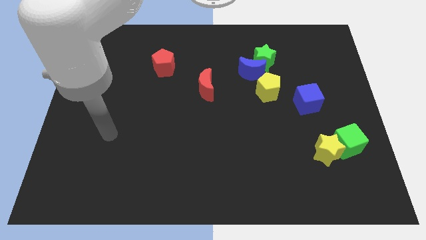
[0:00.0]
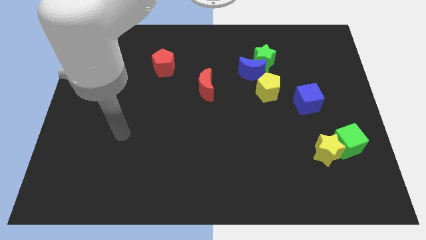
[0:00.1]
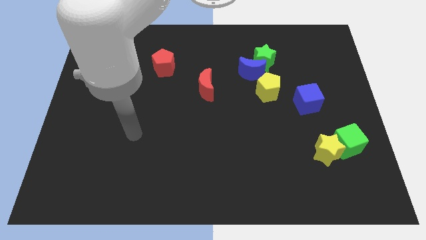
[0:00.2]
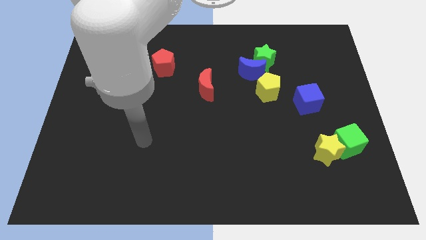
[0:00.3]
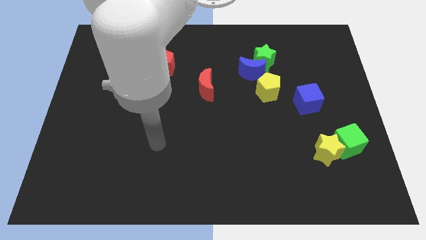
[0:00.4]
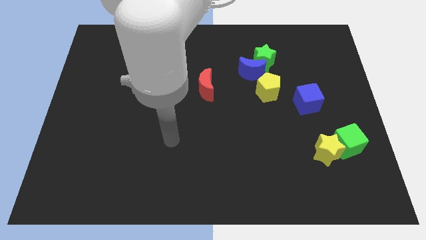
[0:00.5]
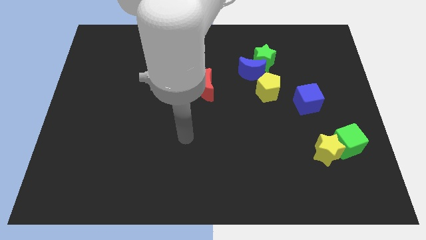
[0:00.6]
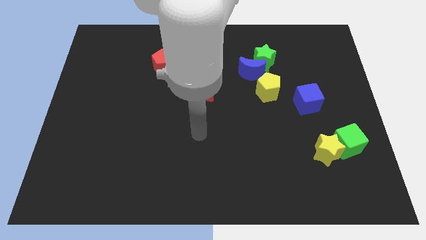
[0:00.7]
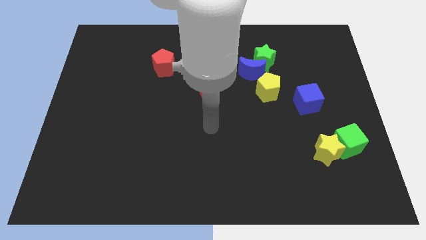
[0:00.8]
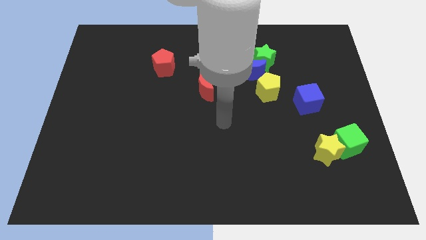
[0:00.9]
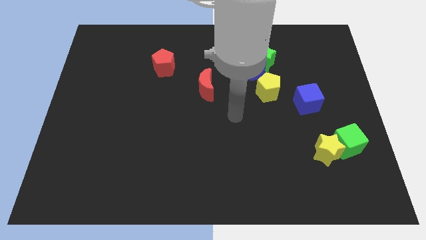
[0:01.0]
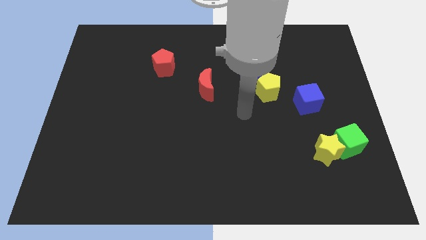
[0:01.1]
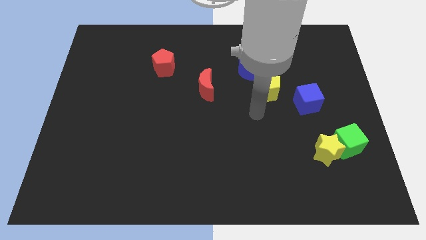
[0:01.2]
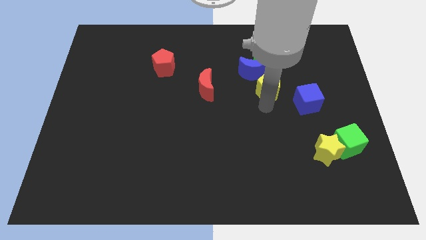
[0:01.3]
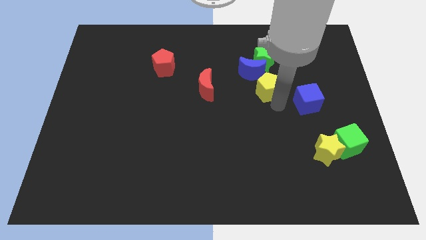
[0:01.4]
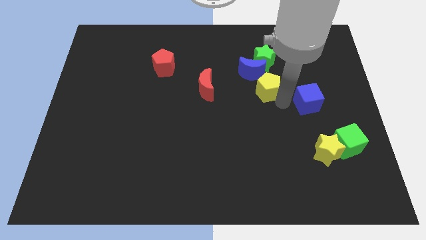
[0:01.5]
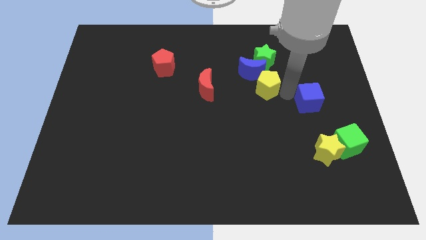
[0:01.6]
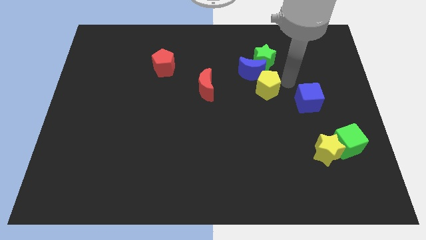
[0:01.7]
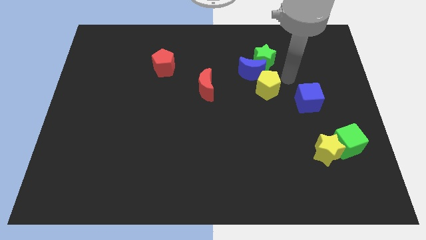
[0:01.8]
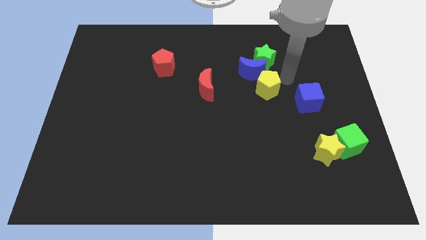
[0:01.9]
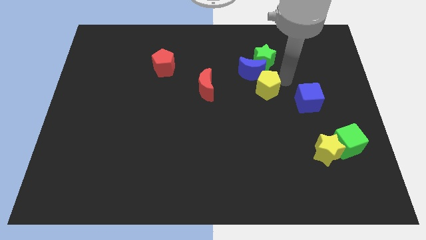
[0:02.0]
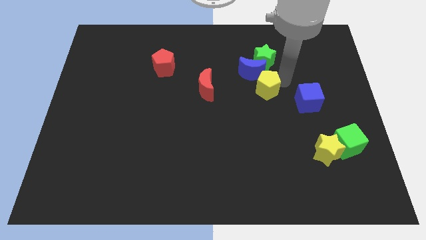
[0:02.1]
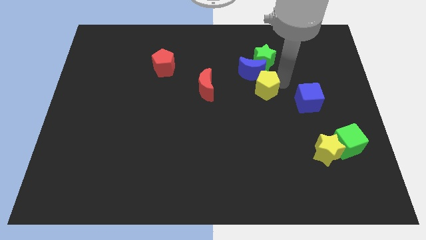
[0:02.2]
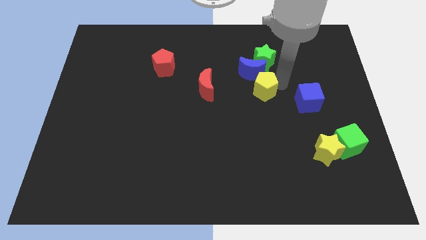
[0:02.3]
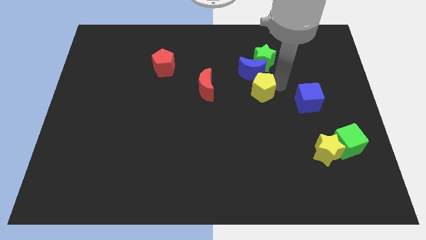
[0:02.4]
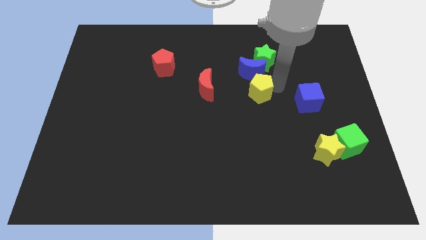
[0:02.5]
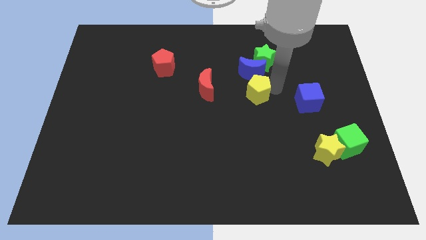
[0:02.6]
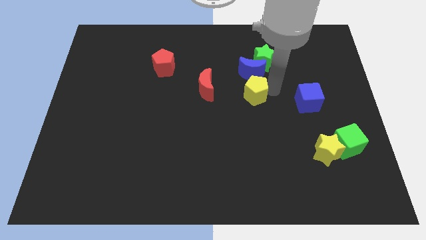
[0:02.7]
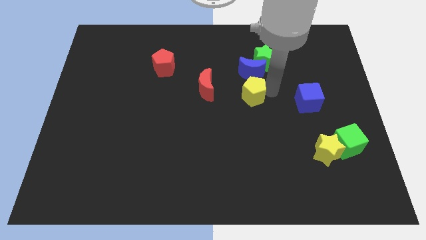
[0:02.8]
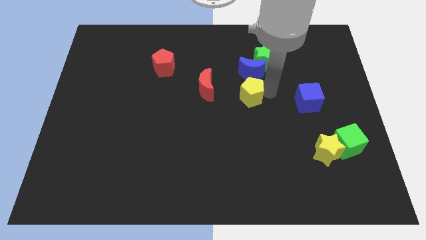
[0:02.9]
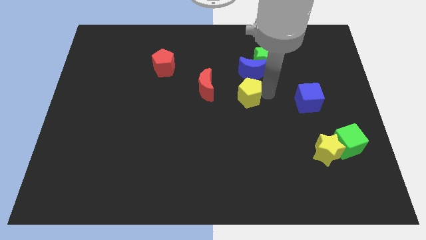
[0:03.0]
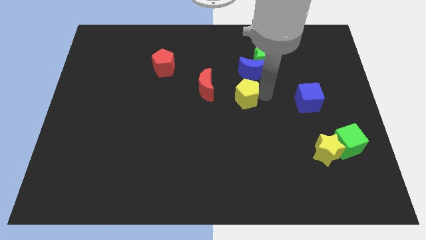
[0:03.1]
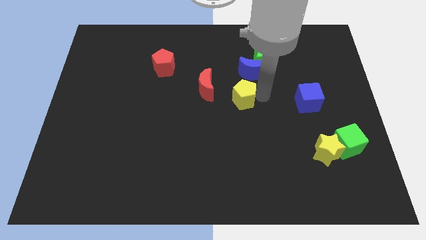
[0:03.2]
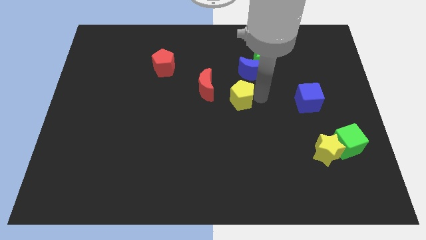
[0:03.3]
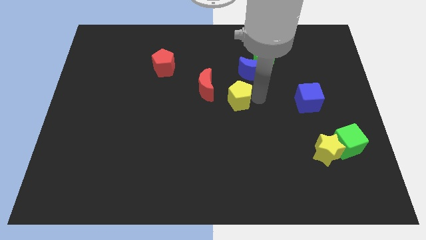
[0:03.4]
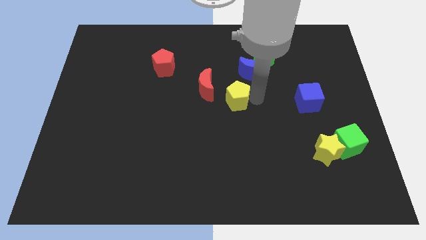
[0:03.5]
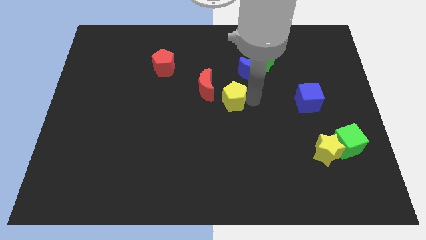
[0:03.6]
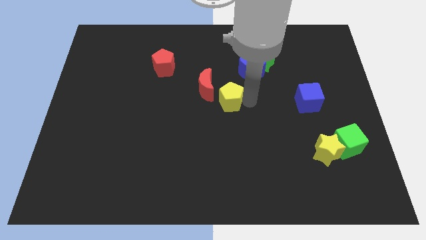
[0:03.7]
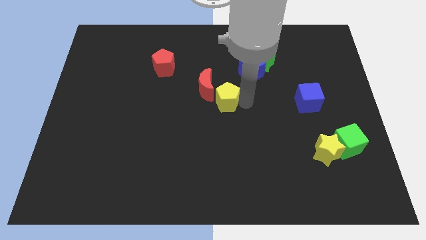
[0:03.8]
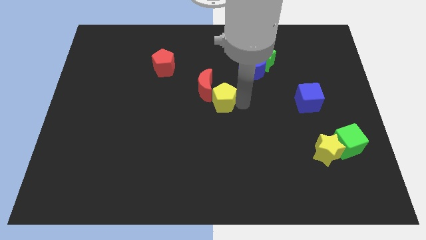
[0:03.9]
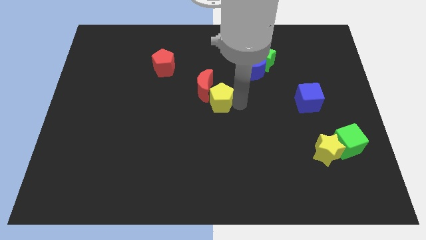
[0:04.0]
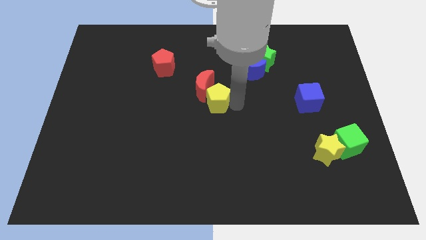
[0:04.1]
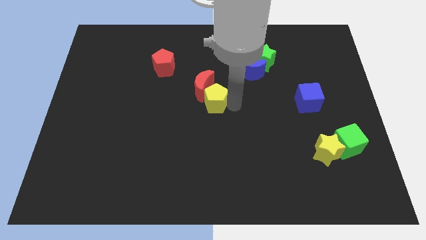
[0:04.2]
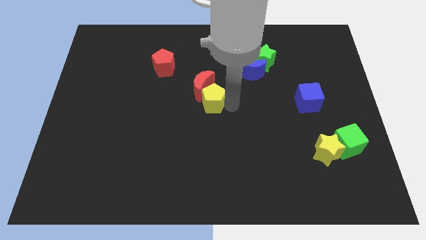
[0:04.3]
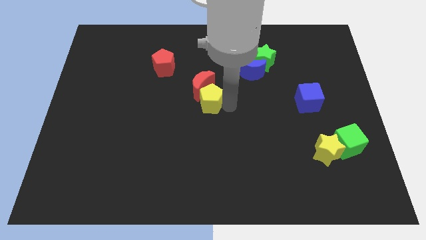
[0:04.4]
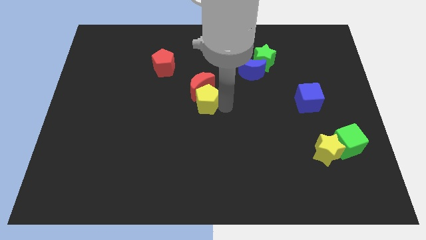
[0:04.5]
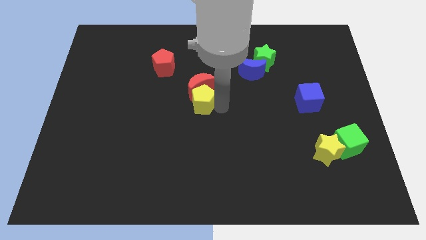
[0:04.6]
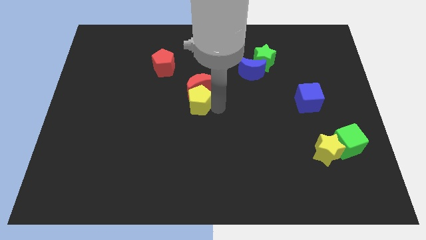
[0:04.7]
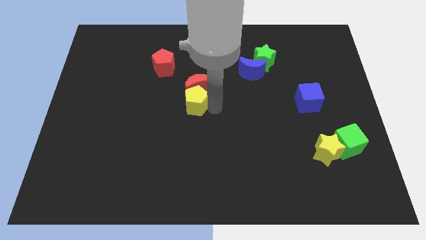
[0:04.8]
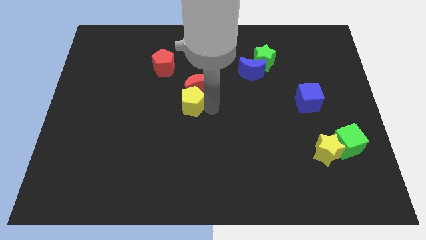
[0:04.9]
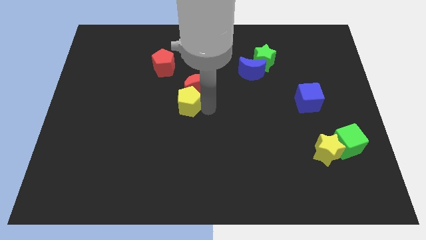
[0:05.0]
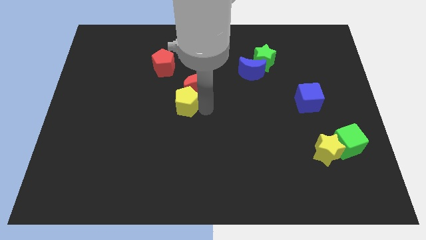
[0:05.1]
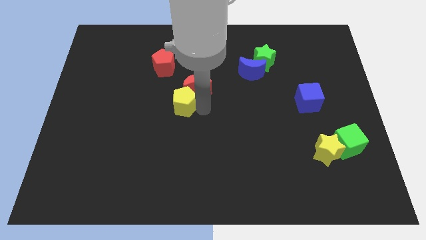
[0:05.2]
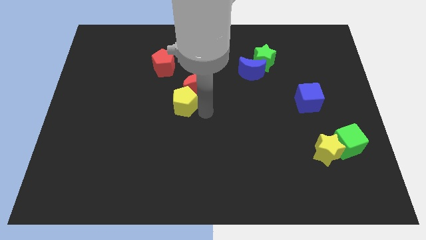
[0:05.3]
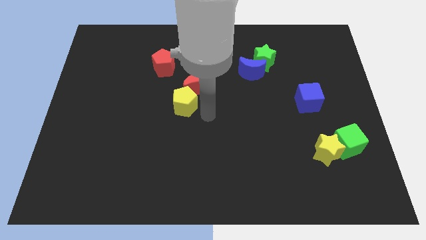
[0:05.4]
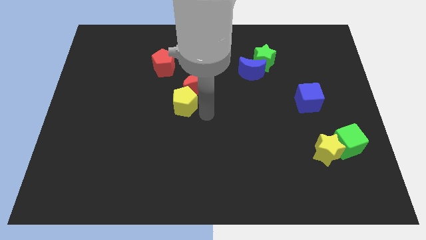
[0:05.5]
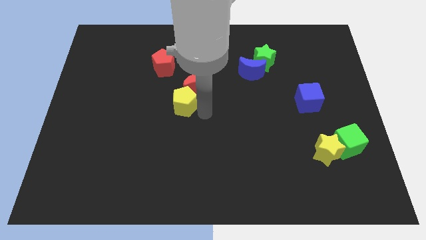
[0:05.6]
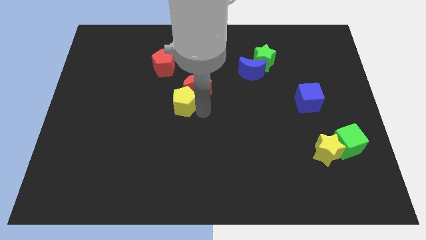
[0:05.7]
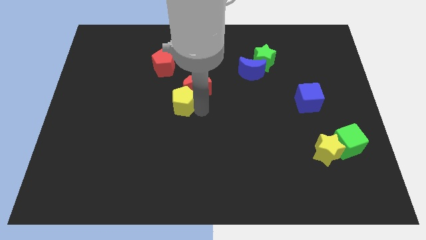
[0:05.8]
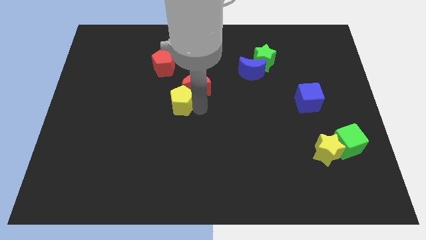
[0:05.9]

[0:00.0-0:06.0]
slide the yellow pentagon to the left

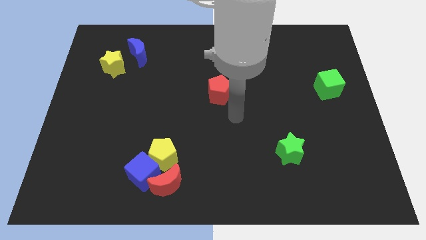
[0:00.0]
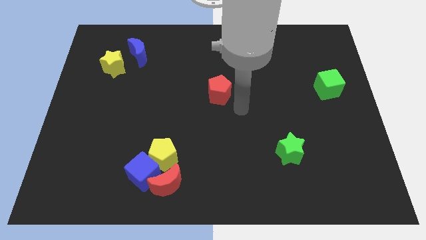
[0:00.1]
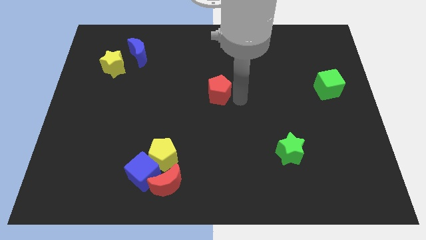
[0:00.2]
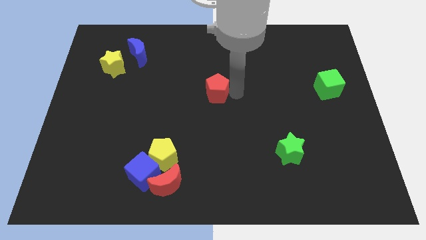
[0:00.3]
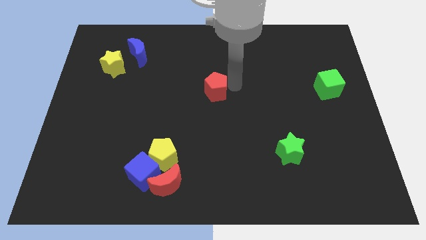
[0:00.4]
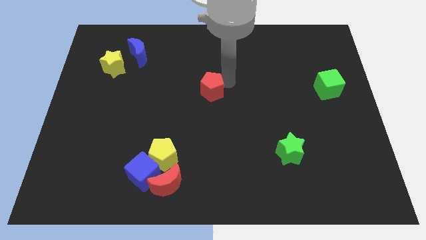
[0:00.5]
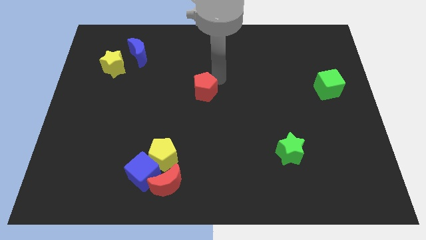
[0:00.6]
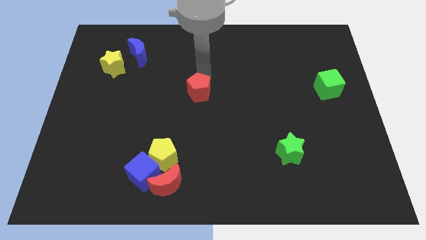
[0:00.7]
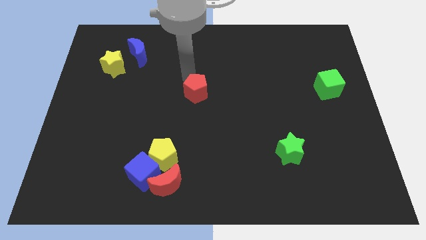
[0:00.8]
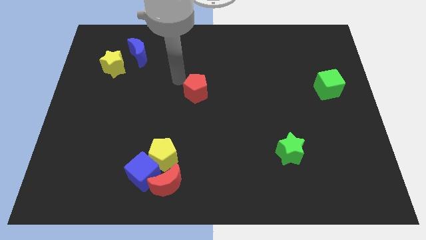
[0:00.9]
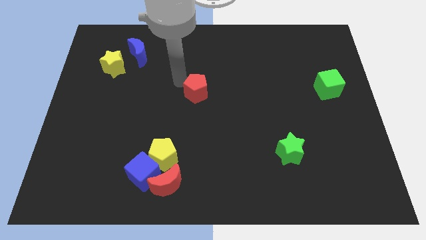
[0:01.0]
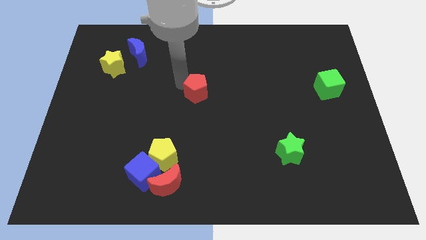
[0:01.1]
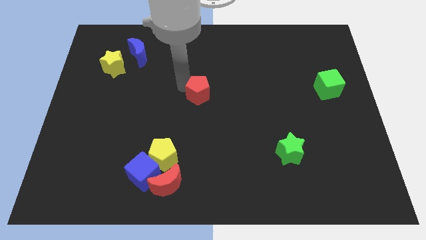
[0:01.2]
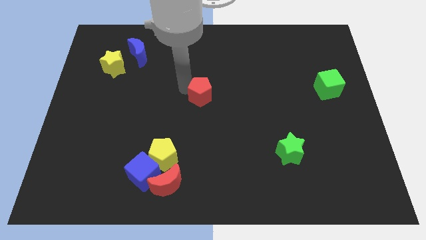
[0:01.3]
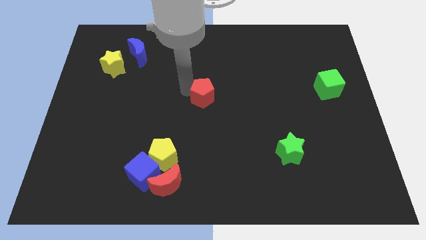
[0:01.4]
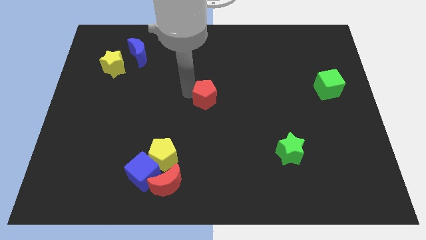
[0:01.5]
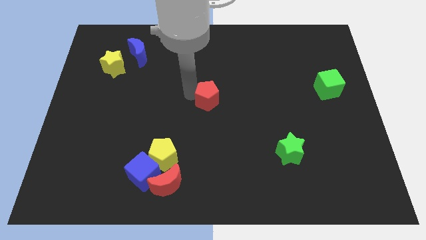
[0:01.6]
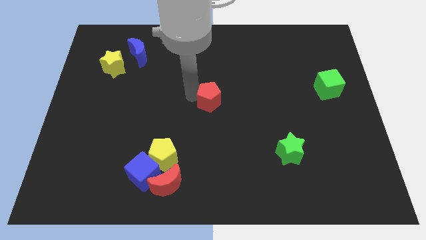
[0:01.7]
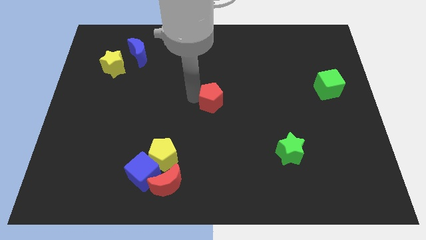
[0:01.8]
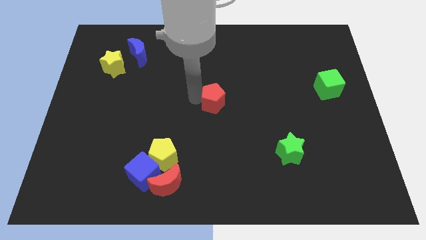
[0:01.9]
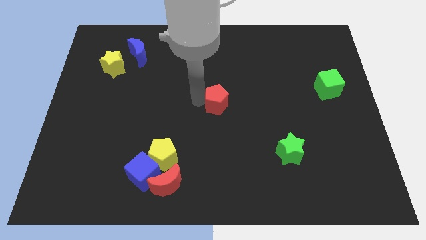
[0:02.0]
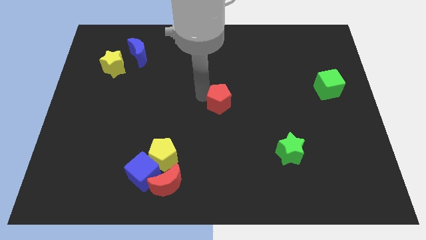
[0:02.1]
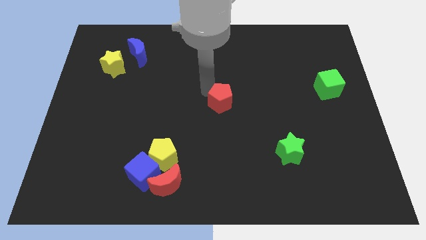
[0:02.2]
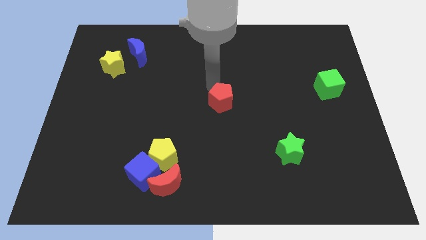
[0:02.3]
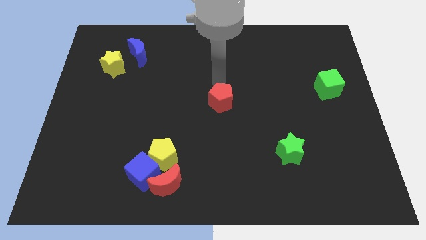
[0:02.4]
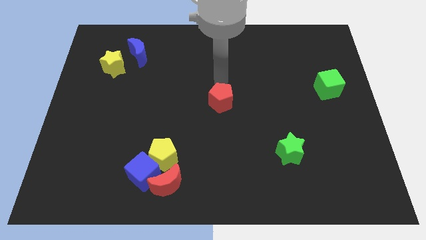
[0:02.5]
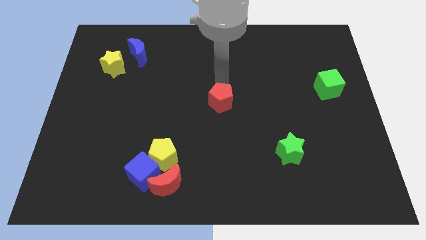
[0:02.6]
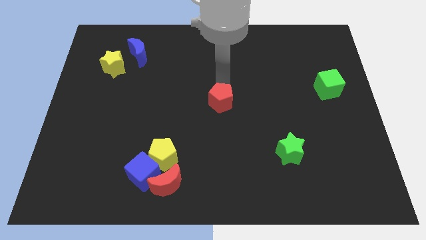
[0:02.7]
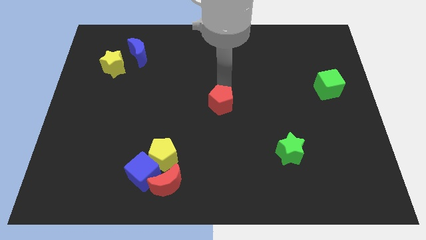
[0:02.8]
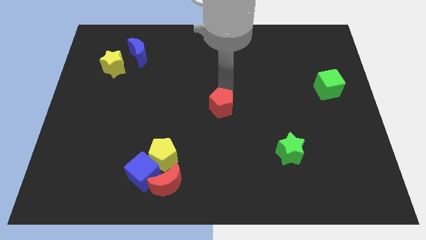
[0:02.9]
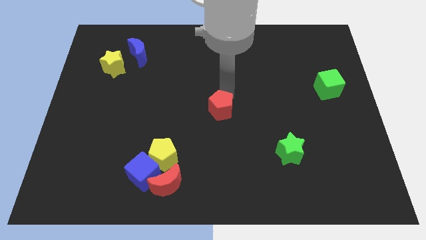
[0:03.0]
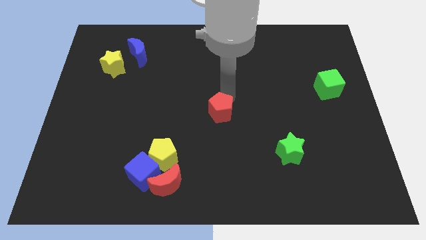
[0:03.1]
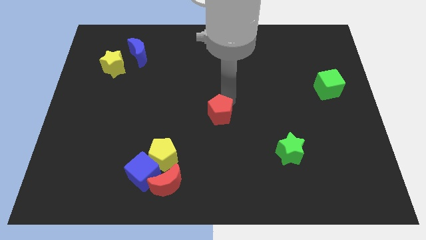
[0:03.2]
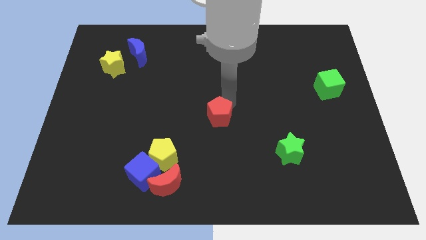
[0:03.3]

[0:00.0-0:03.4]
slide the red pentagon down a bit
